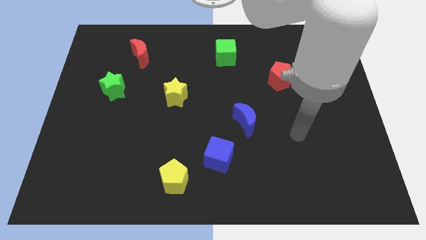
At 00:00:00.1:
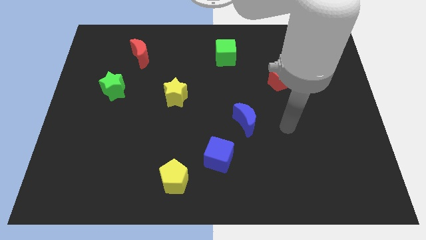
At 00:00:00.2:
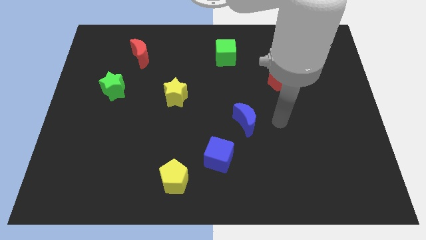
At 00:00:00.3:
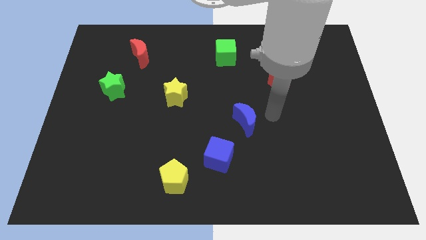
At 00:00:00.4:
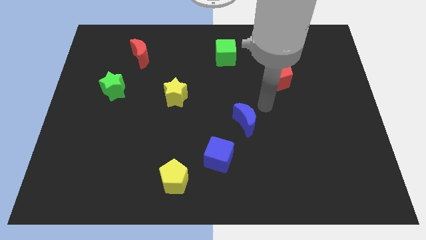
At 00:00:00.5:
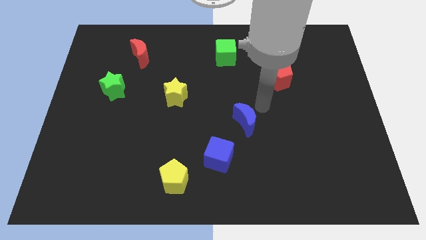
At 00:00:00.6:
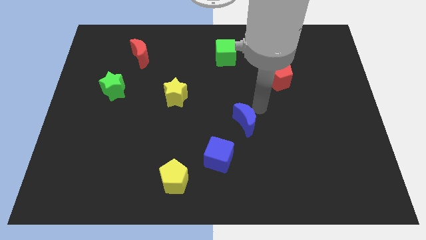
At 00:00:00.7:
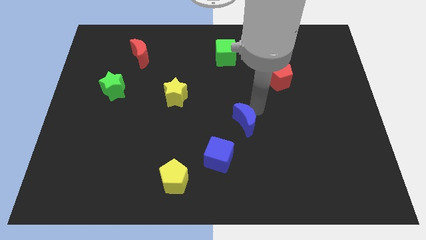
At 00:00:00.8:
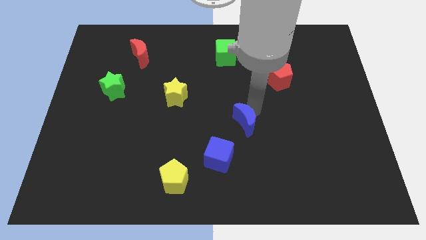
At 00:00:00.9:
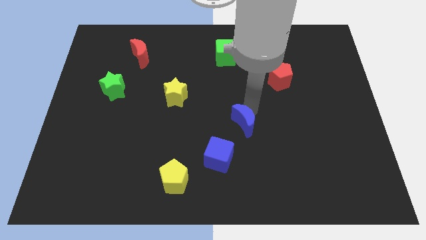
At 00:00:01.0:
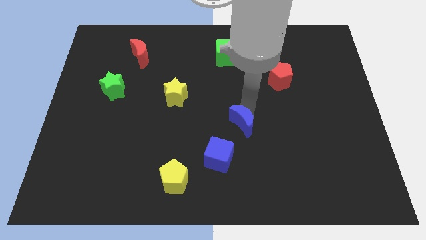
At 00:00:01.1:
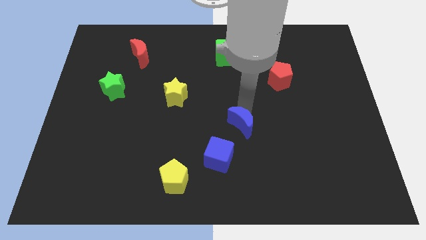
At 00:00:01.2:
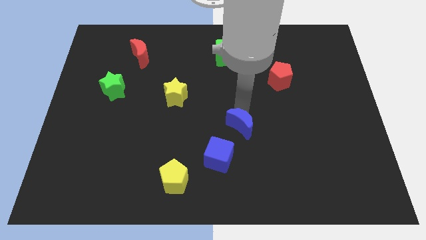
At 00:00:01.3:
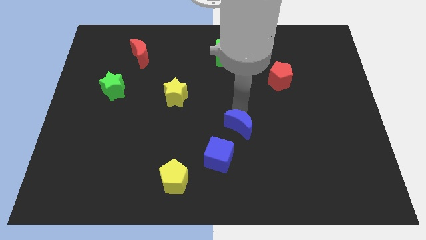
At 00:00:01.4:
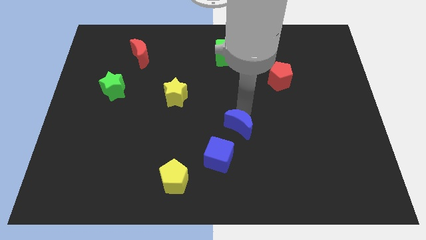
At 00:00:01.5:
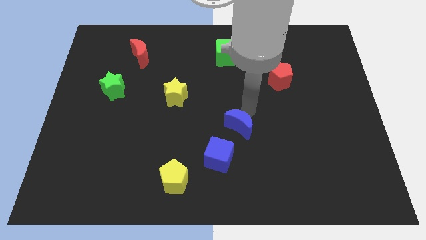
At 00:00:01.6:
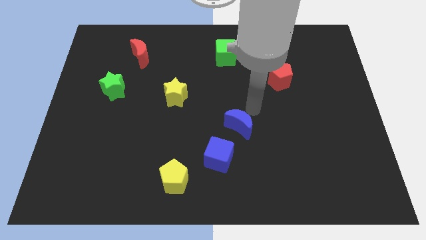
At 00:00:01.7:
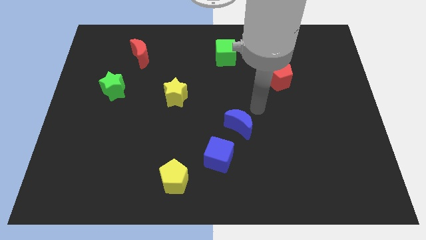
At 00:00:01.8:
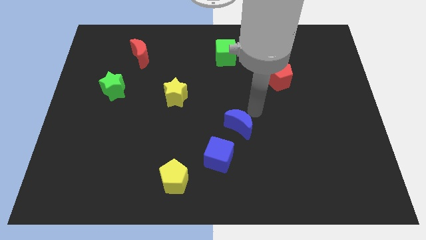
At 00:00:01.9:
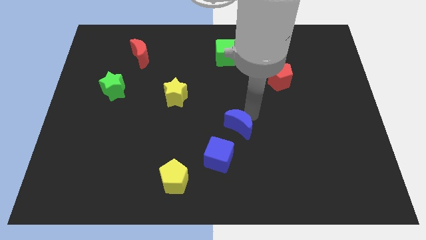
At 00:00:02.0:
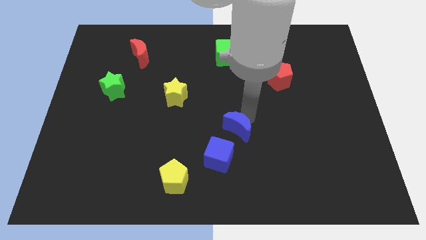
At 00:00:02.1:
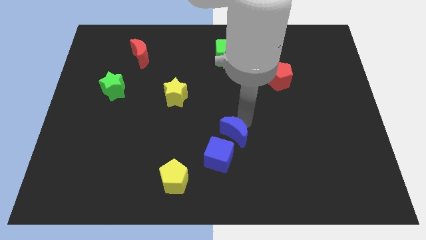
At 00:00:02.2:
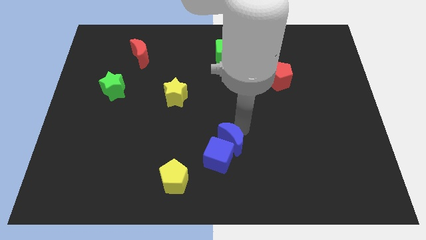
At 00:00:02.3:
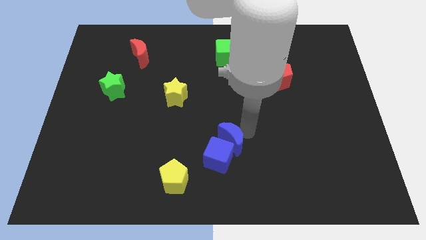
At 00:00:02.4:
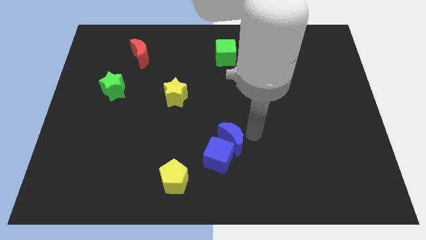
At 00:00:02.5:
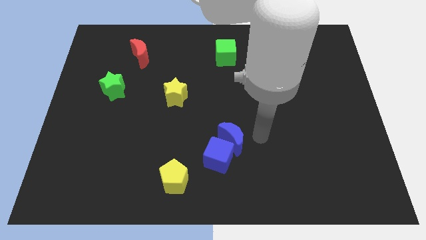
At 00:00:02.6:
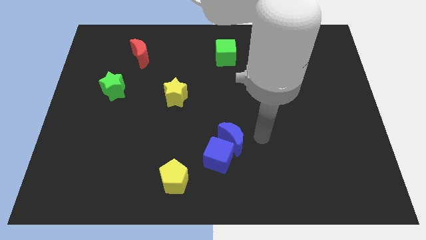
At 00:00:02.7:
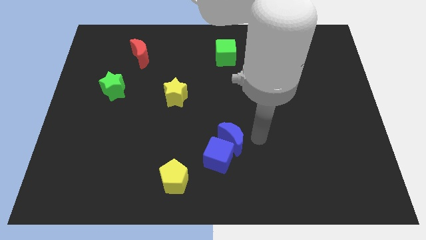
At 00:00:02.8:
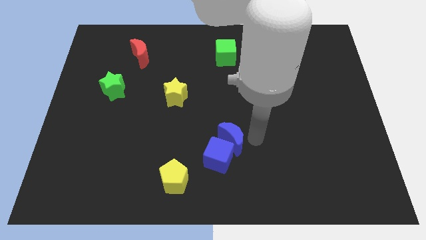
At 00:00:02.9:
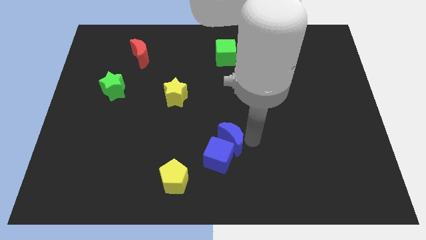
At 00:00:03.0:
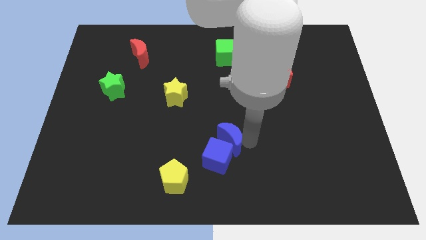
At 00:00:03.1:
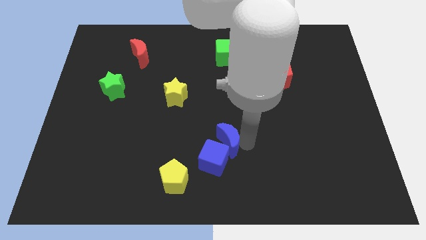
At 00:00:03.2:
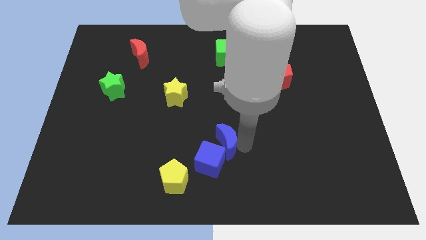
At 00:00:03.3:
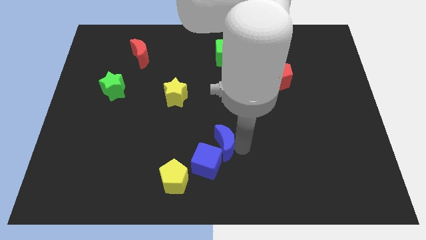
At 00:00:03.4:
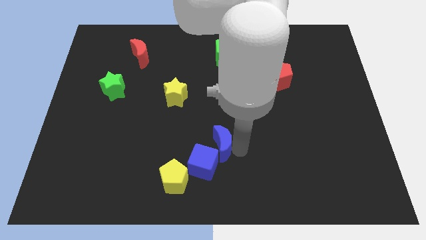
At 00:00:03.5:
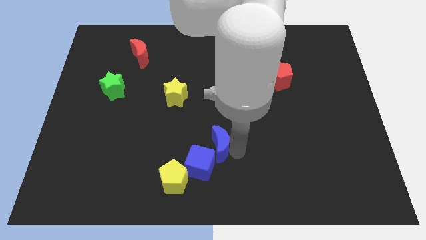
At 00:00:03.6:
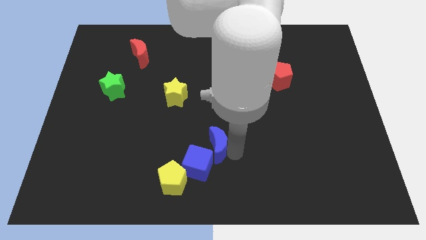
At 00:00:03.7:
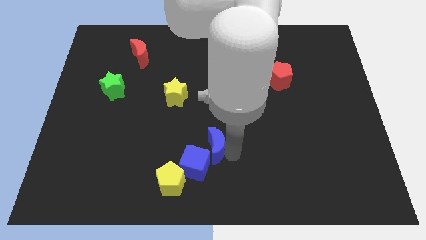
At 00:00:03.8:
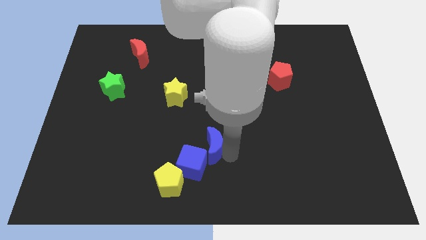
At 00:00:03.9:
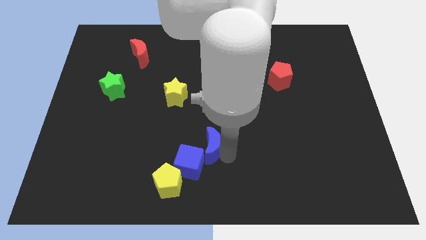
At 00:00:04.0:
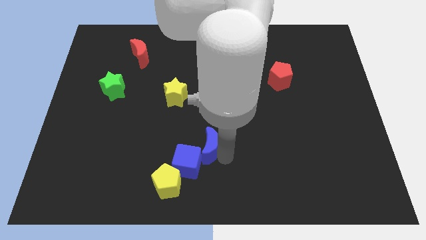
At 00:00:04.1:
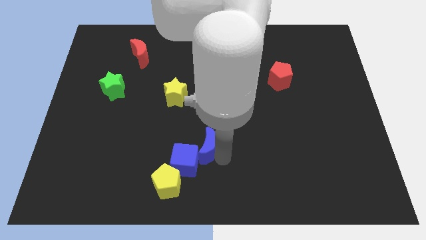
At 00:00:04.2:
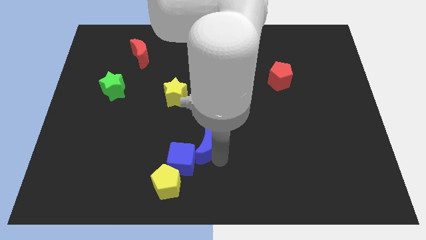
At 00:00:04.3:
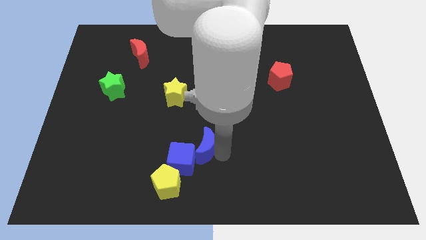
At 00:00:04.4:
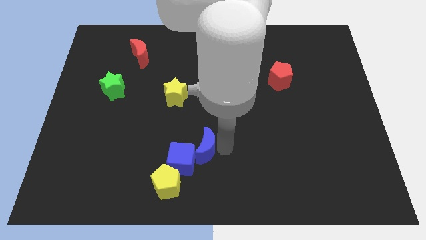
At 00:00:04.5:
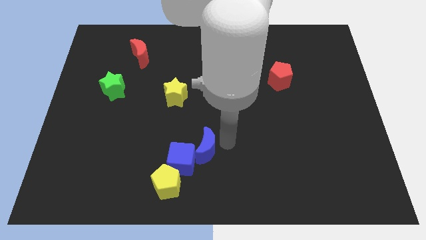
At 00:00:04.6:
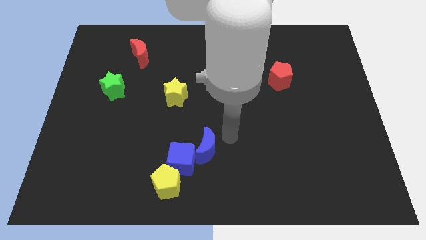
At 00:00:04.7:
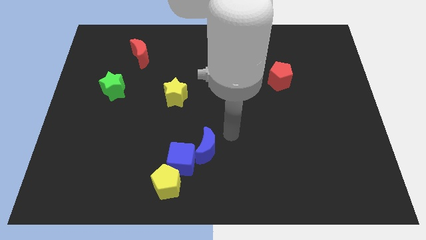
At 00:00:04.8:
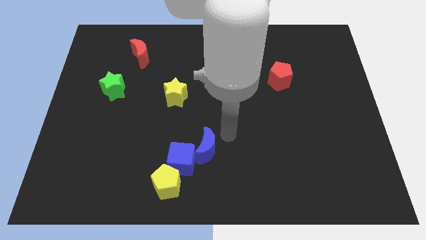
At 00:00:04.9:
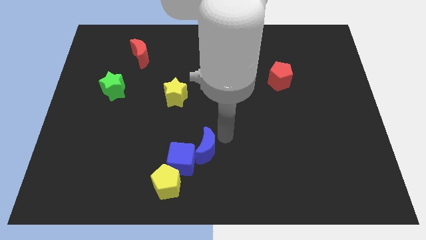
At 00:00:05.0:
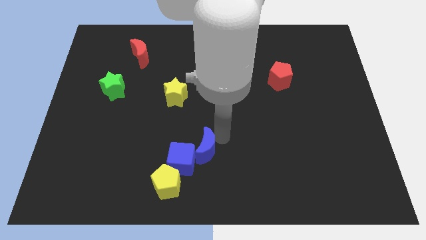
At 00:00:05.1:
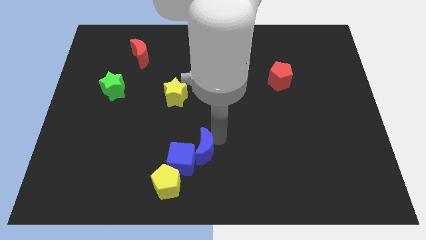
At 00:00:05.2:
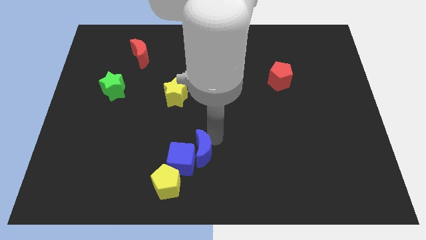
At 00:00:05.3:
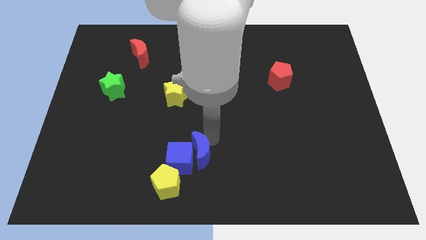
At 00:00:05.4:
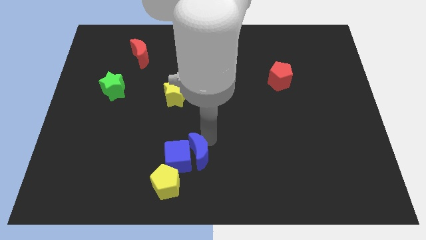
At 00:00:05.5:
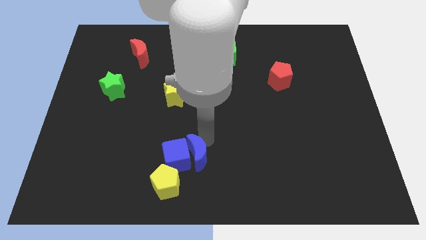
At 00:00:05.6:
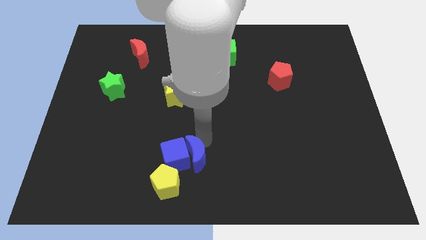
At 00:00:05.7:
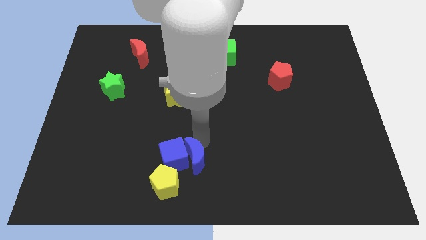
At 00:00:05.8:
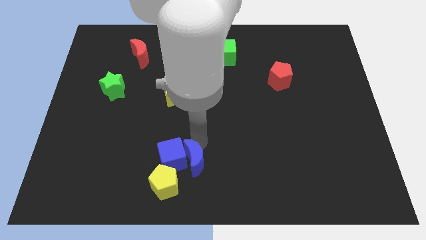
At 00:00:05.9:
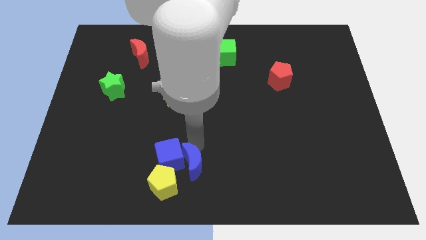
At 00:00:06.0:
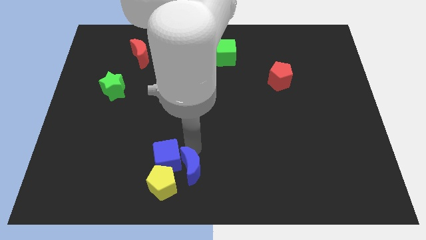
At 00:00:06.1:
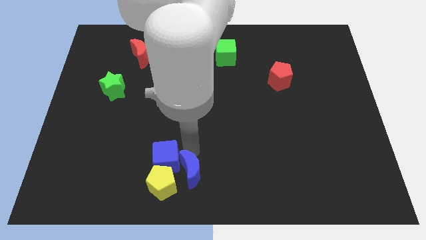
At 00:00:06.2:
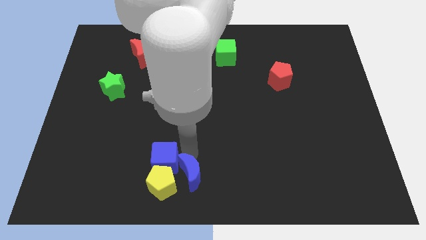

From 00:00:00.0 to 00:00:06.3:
move the blue moon towards the yellow pentagon

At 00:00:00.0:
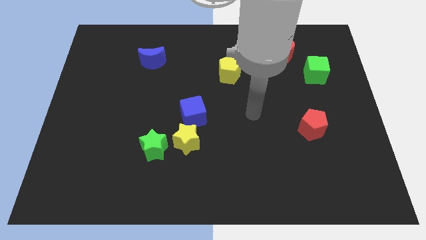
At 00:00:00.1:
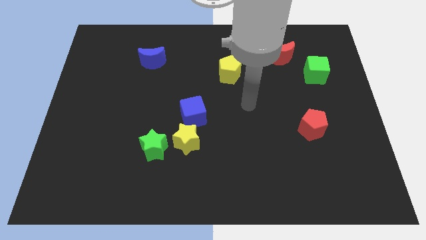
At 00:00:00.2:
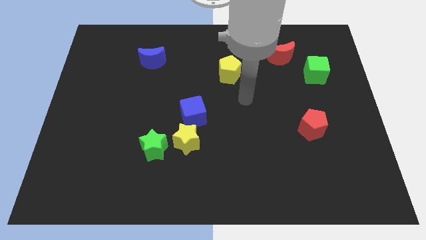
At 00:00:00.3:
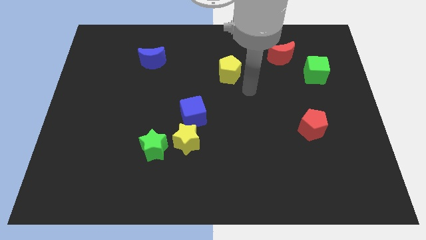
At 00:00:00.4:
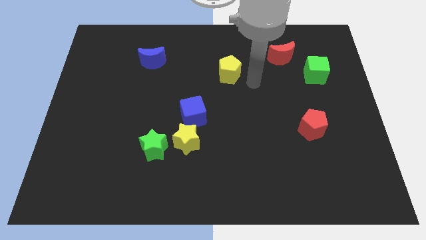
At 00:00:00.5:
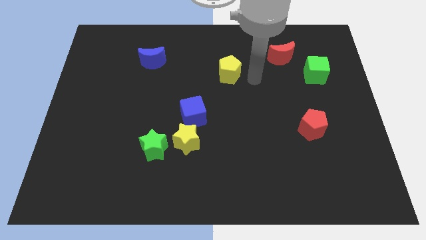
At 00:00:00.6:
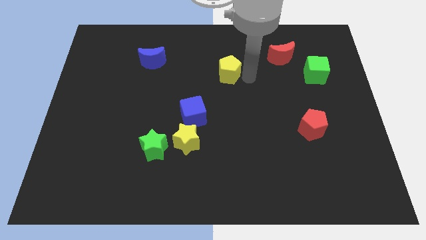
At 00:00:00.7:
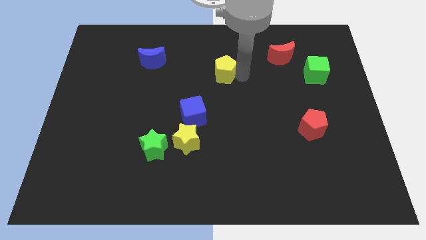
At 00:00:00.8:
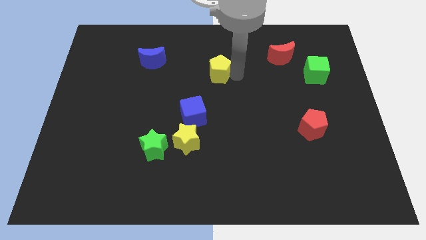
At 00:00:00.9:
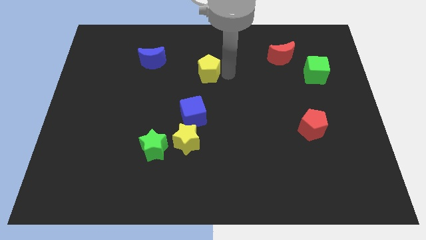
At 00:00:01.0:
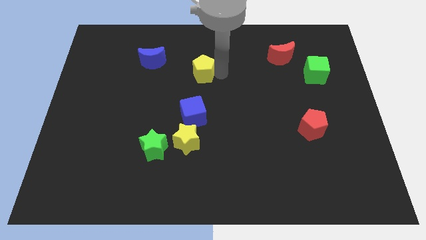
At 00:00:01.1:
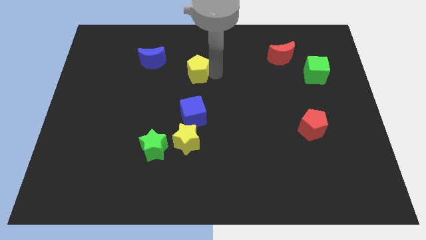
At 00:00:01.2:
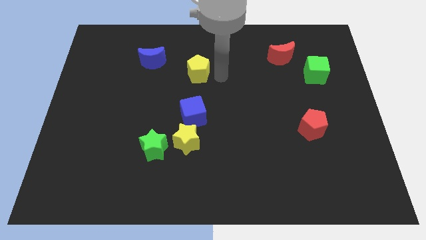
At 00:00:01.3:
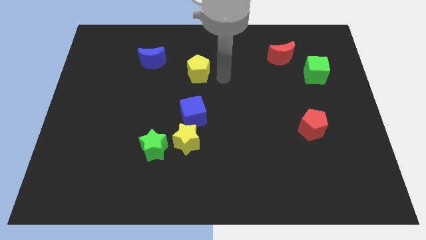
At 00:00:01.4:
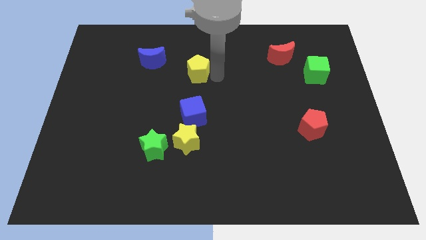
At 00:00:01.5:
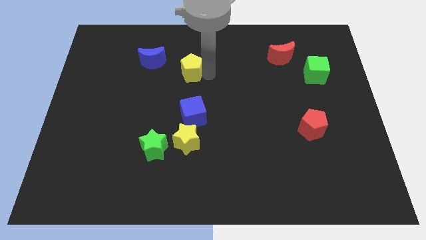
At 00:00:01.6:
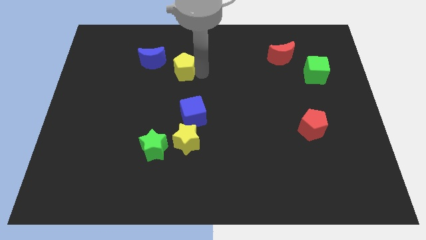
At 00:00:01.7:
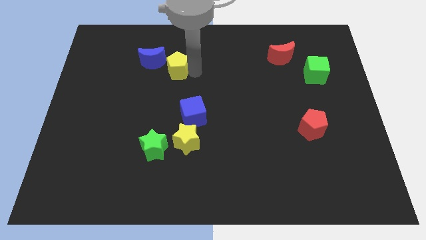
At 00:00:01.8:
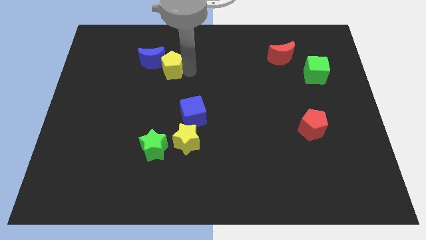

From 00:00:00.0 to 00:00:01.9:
move the yellow pentagon close to the blue moon
